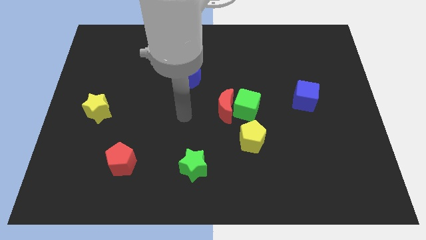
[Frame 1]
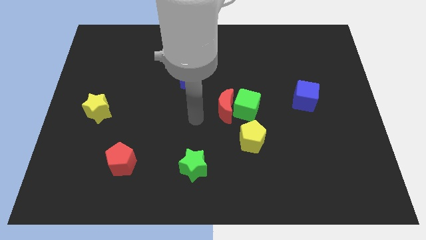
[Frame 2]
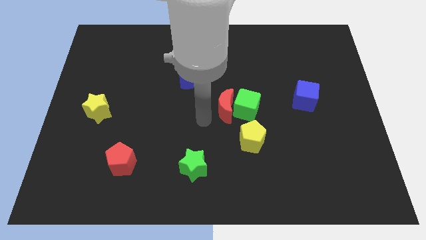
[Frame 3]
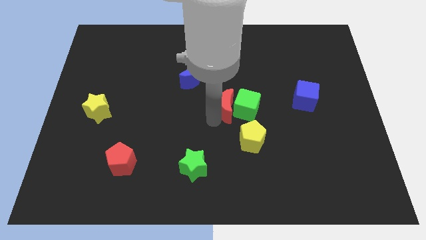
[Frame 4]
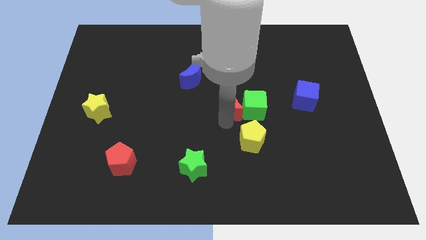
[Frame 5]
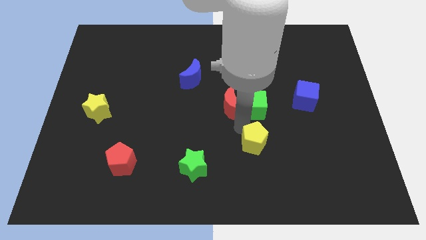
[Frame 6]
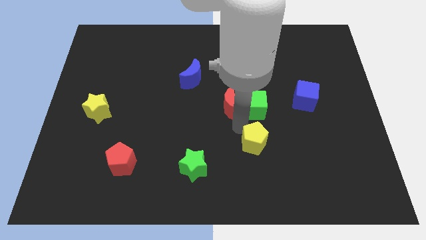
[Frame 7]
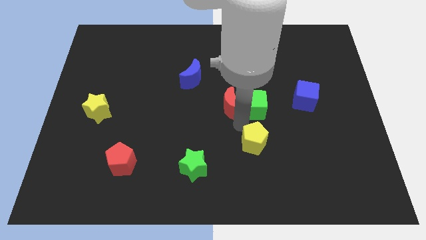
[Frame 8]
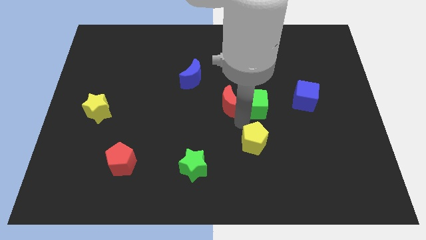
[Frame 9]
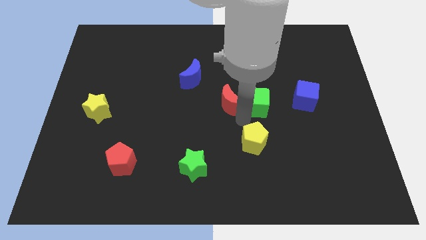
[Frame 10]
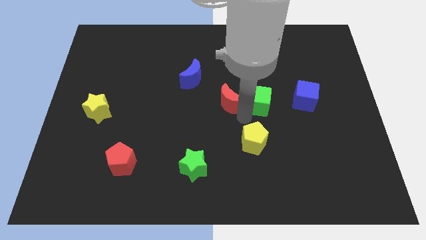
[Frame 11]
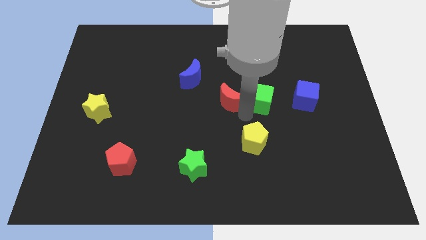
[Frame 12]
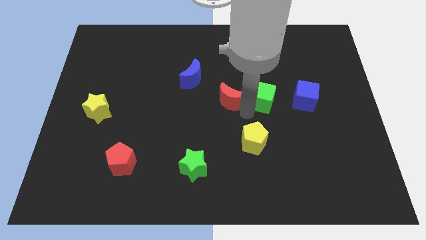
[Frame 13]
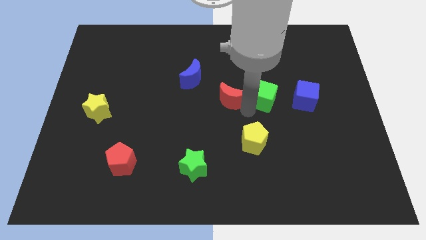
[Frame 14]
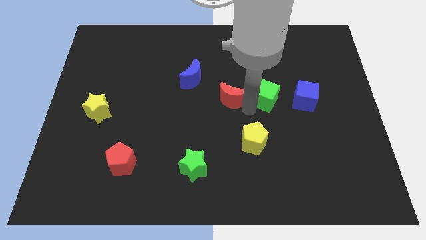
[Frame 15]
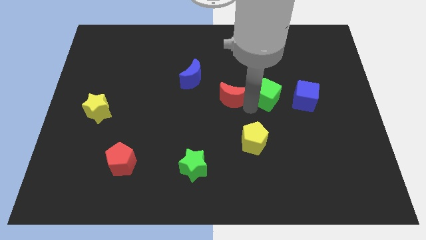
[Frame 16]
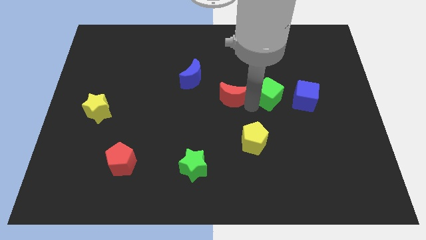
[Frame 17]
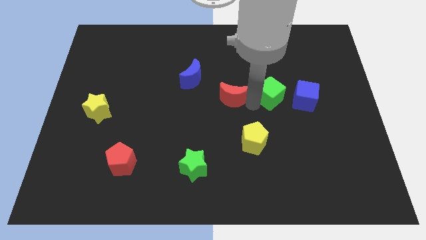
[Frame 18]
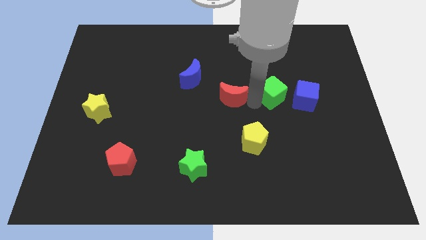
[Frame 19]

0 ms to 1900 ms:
separate the green cube from the red moon and yellow pentagon

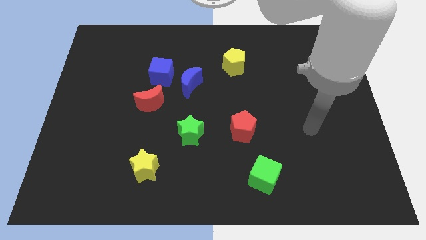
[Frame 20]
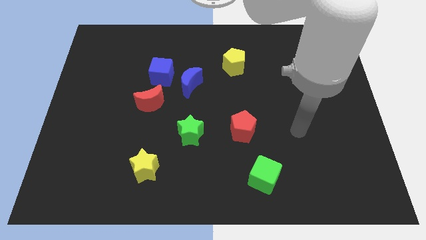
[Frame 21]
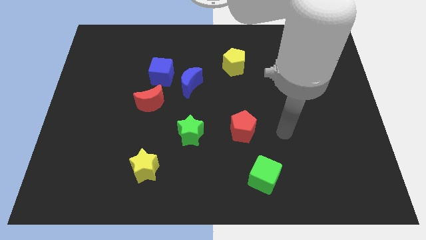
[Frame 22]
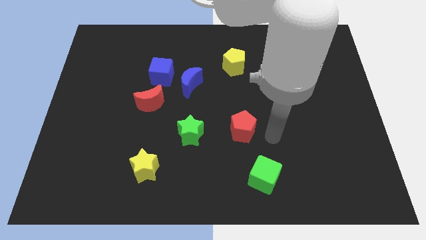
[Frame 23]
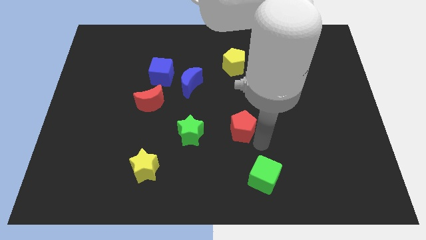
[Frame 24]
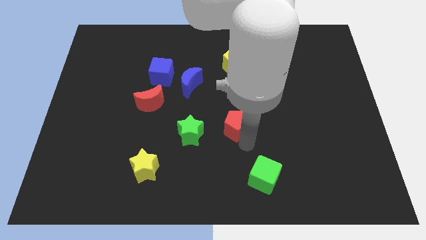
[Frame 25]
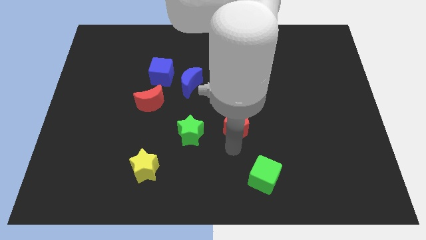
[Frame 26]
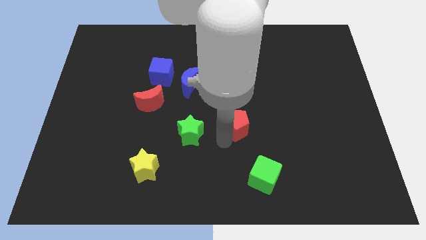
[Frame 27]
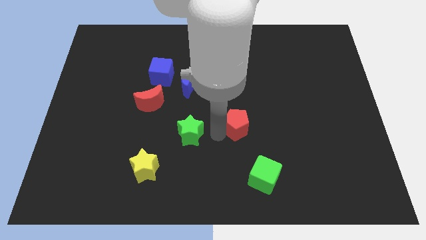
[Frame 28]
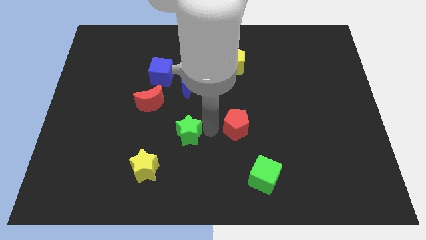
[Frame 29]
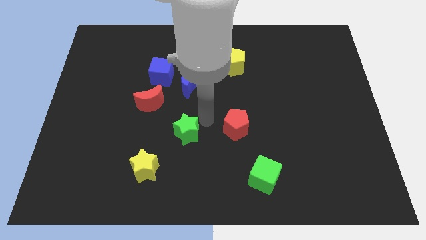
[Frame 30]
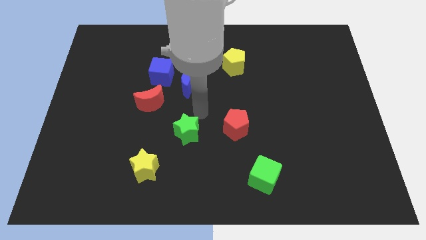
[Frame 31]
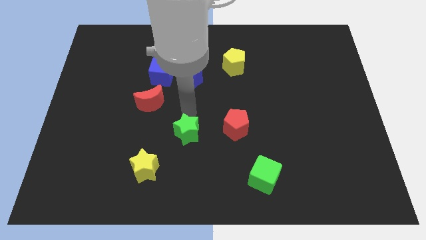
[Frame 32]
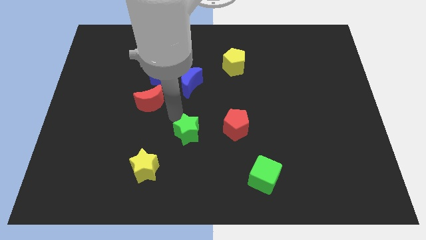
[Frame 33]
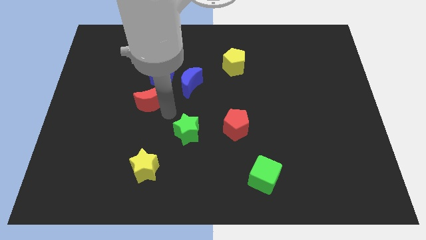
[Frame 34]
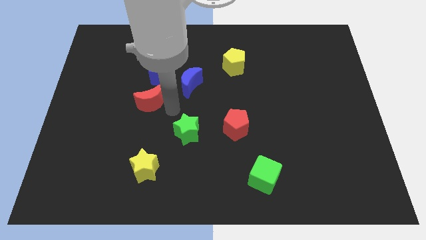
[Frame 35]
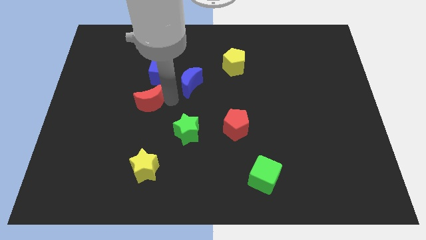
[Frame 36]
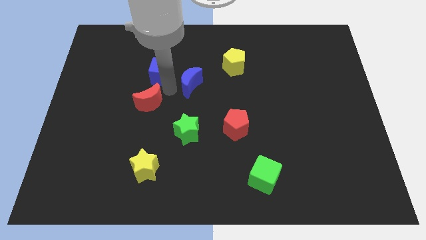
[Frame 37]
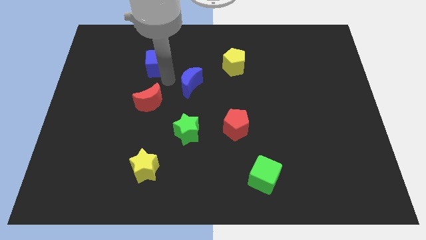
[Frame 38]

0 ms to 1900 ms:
move the blue moon away from the blue cube

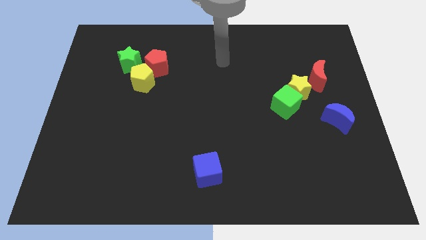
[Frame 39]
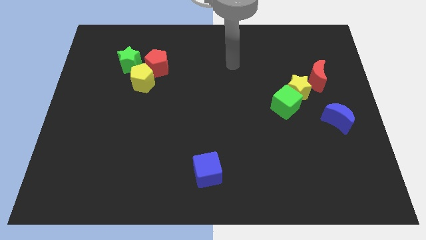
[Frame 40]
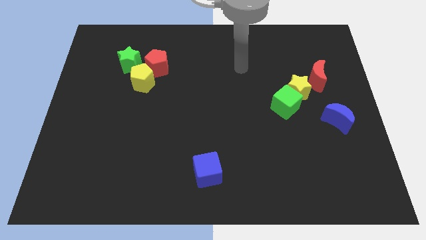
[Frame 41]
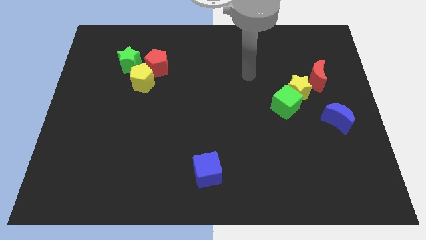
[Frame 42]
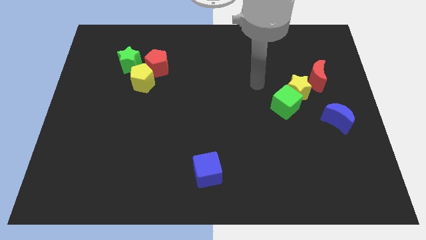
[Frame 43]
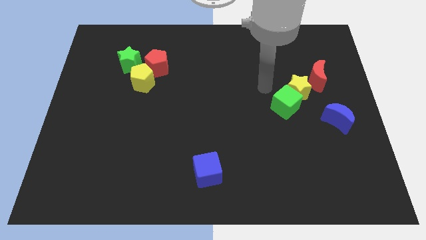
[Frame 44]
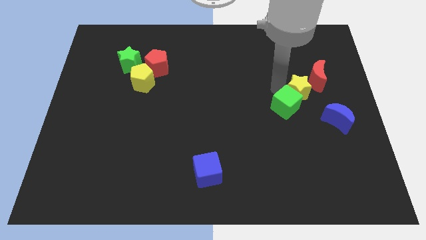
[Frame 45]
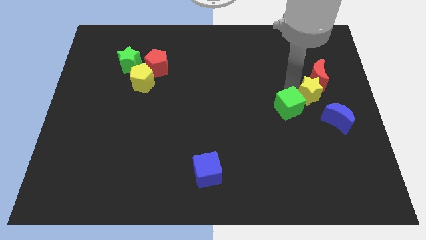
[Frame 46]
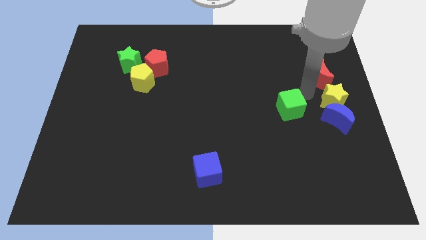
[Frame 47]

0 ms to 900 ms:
move the green cube away from the yellow star

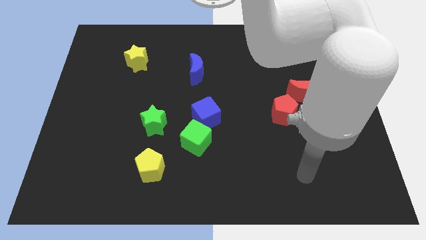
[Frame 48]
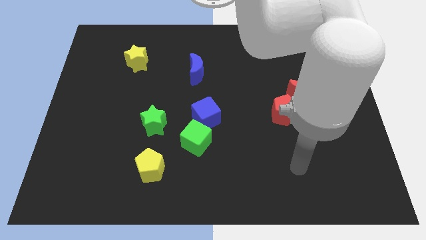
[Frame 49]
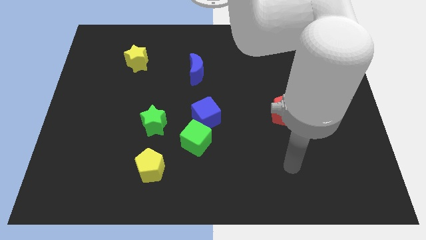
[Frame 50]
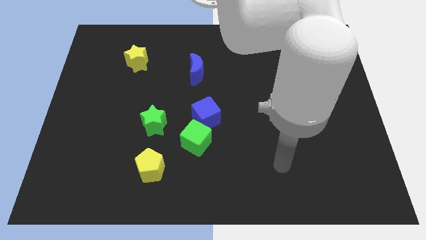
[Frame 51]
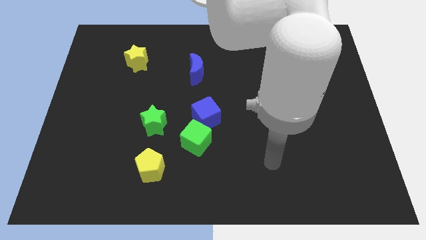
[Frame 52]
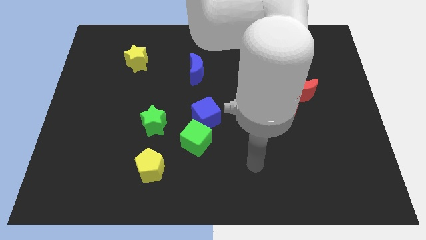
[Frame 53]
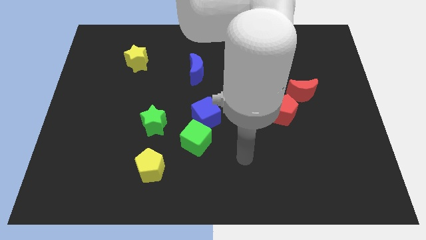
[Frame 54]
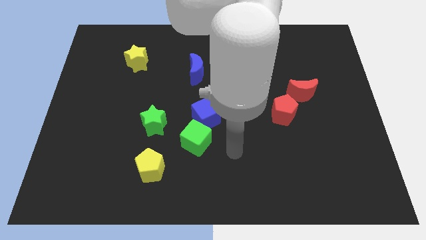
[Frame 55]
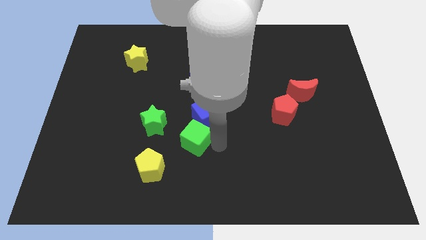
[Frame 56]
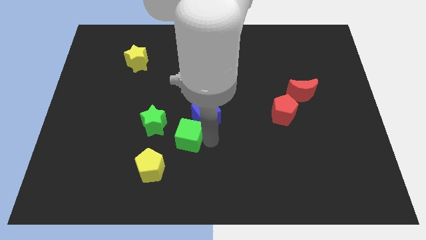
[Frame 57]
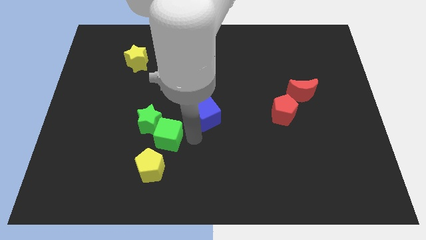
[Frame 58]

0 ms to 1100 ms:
move the blue cube away from the green cube

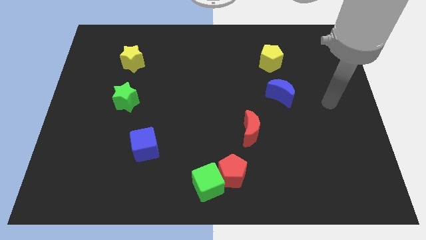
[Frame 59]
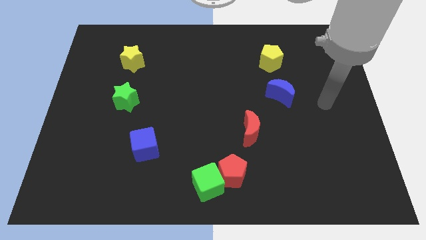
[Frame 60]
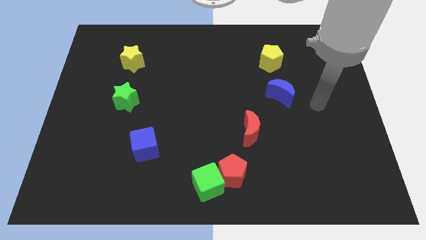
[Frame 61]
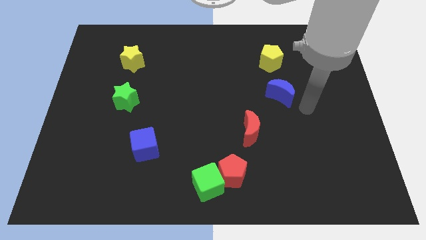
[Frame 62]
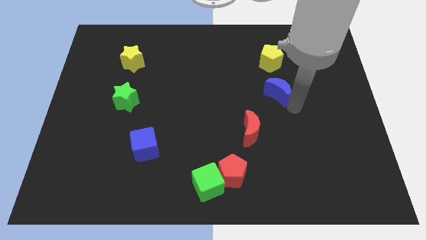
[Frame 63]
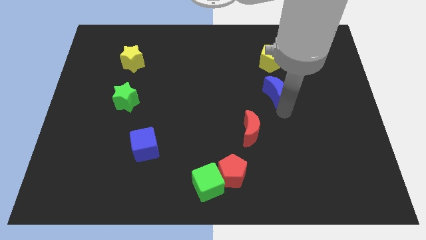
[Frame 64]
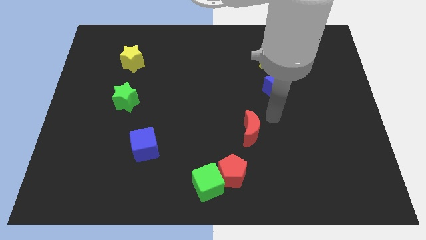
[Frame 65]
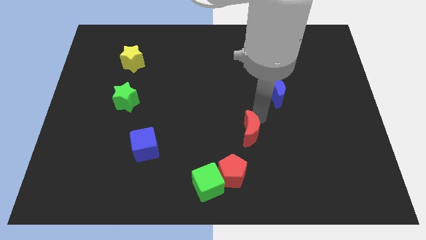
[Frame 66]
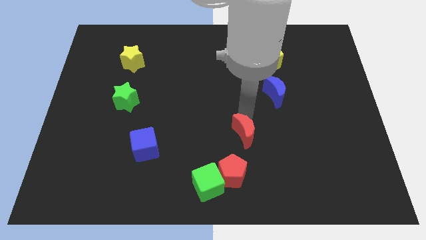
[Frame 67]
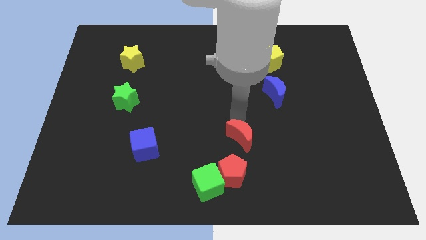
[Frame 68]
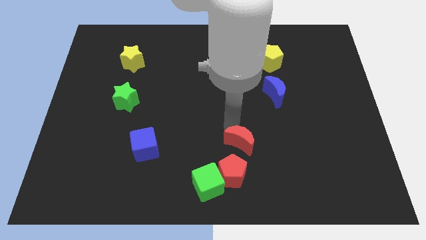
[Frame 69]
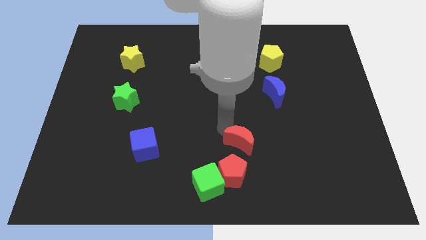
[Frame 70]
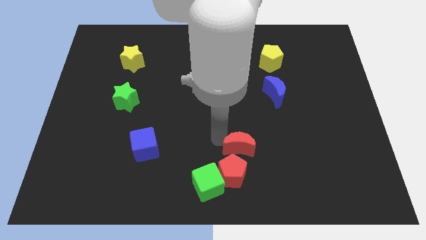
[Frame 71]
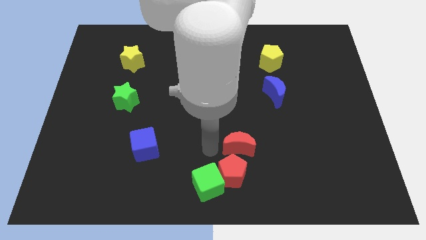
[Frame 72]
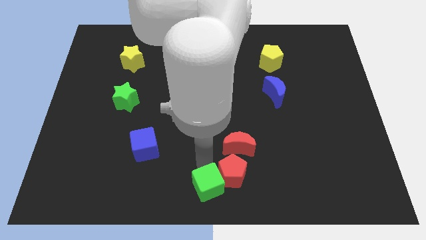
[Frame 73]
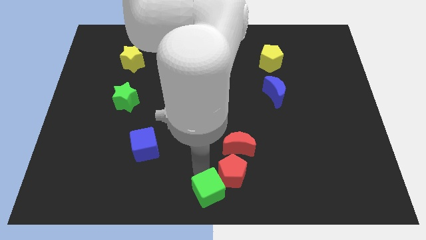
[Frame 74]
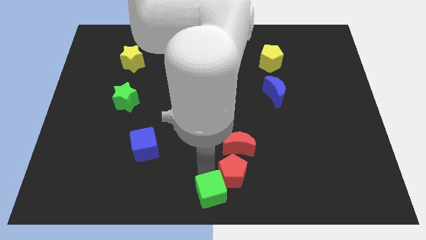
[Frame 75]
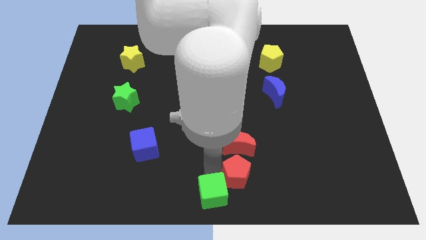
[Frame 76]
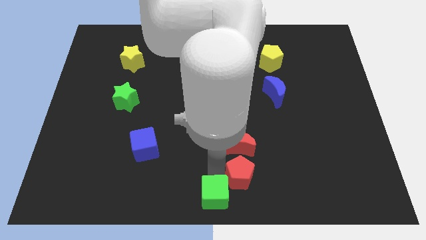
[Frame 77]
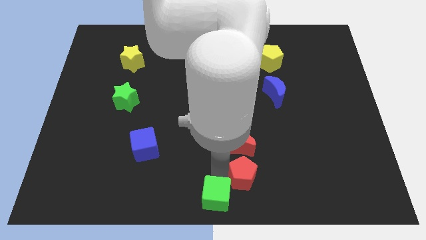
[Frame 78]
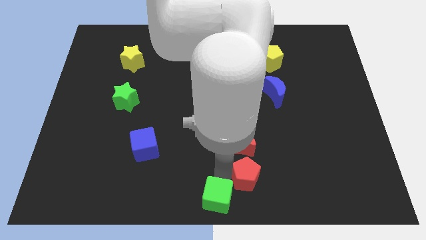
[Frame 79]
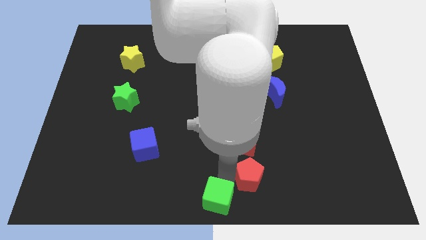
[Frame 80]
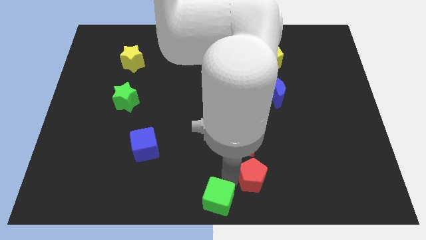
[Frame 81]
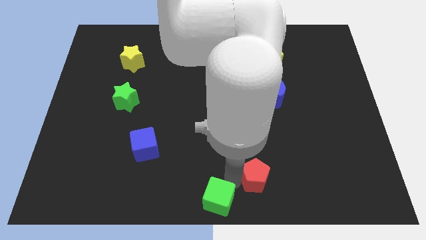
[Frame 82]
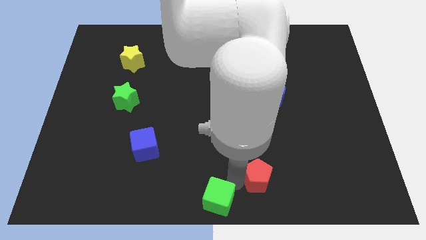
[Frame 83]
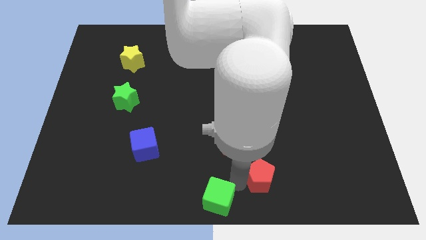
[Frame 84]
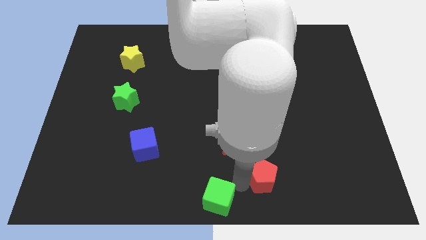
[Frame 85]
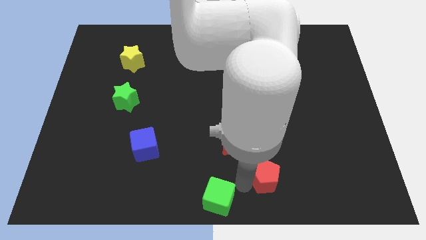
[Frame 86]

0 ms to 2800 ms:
move the red pentagon away from the green cube

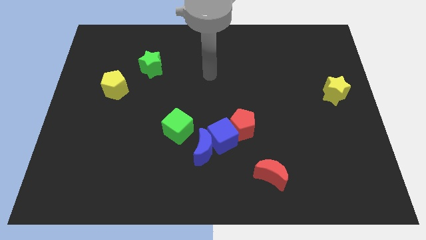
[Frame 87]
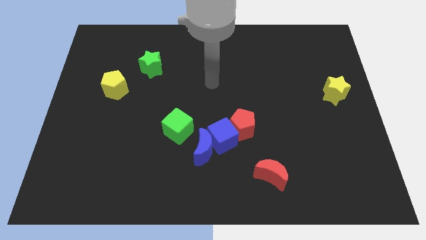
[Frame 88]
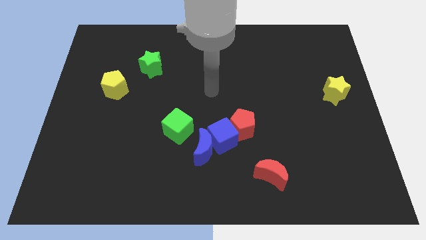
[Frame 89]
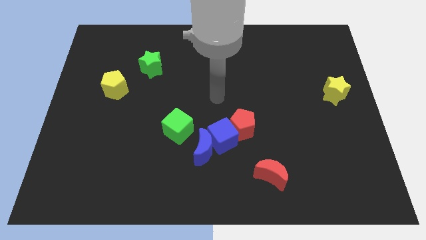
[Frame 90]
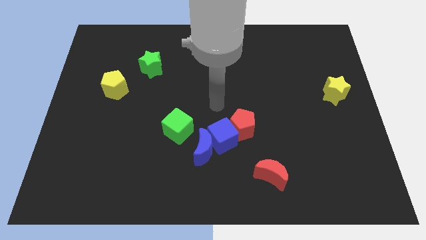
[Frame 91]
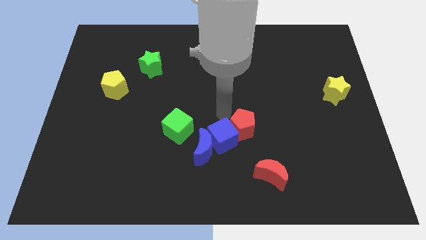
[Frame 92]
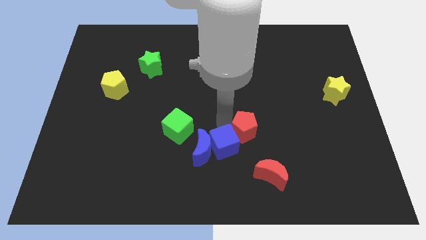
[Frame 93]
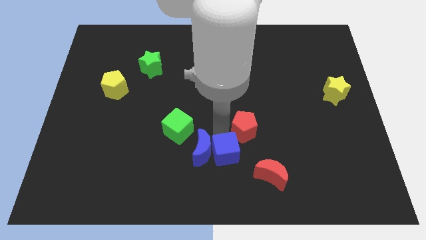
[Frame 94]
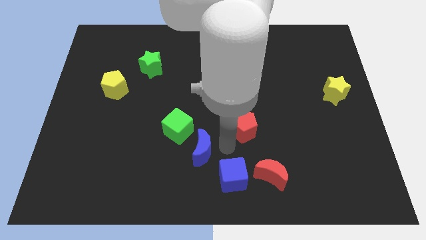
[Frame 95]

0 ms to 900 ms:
move the red pentagon away from the blue cube
